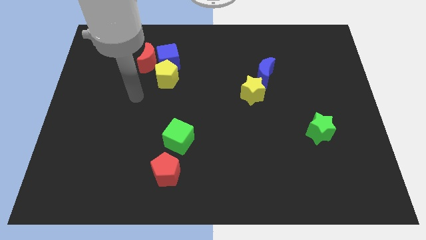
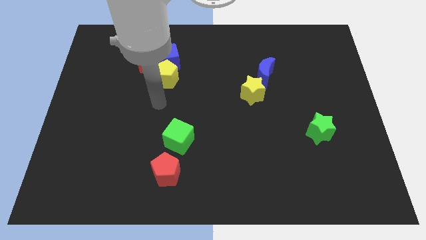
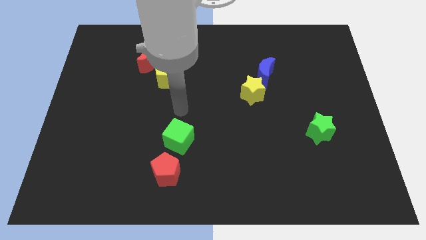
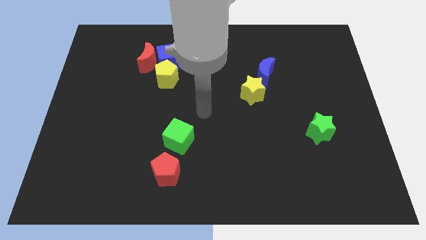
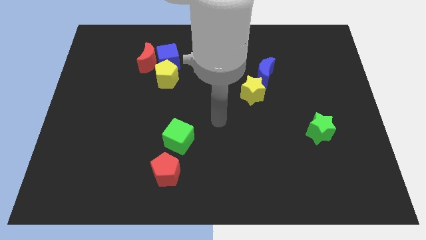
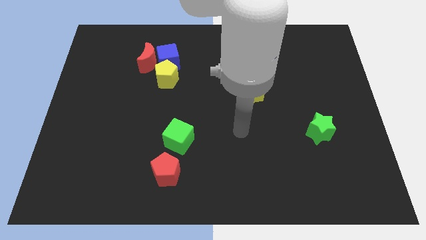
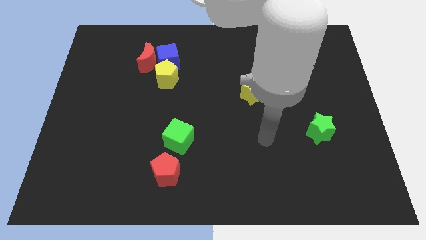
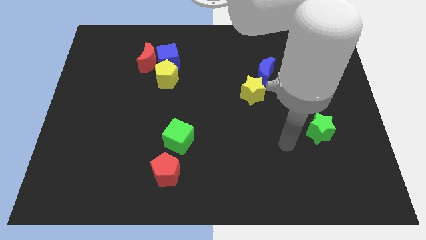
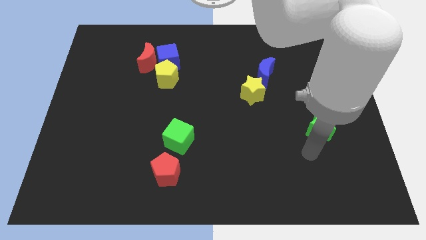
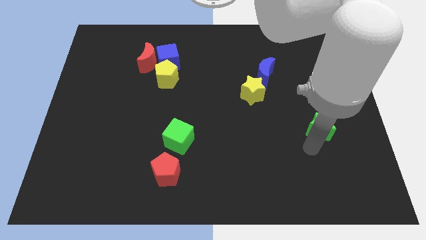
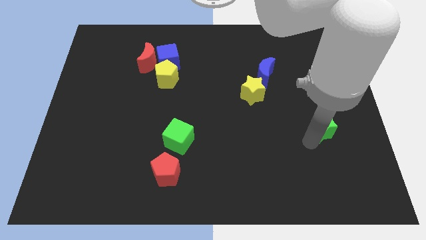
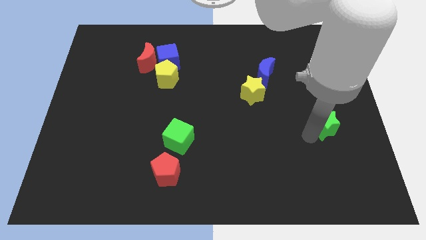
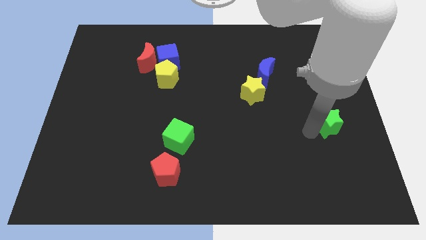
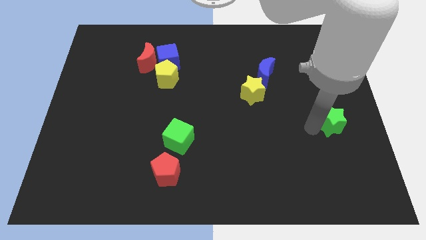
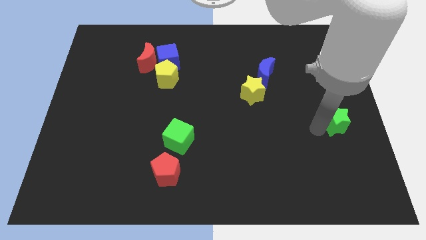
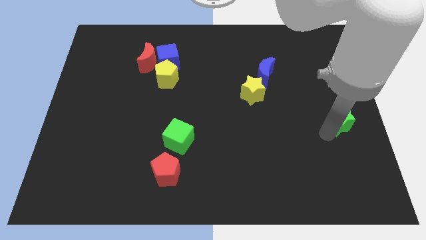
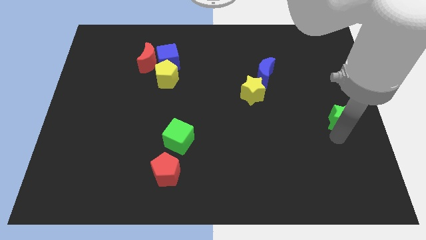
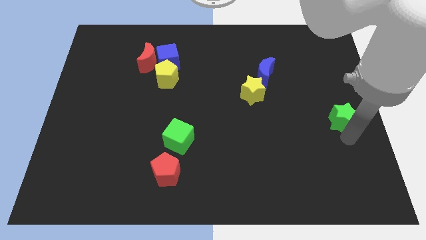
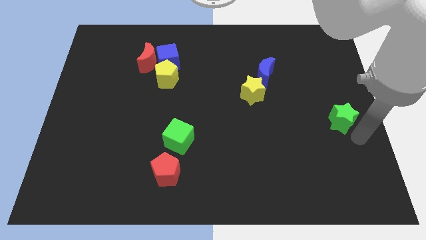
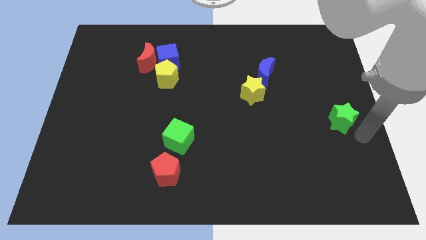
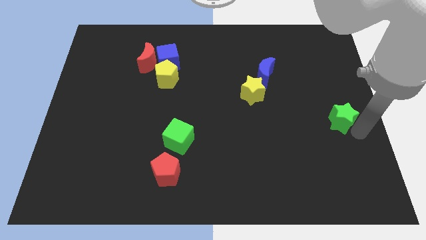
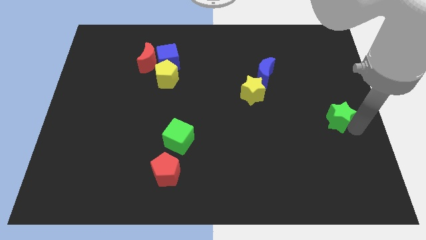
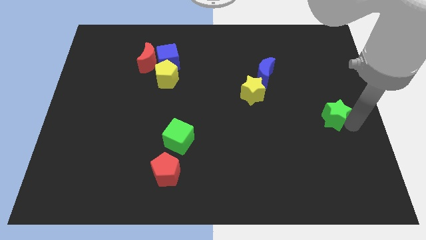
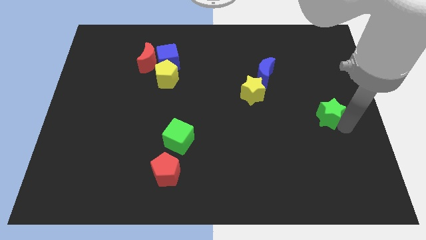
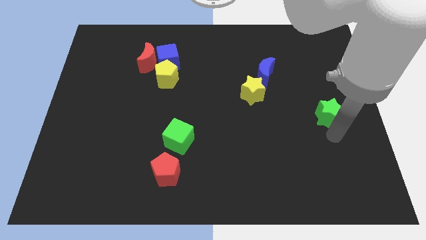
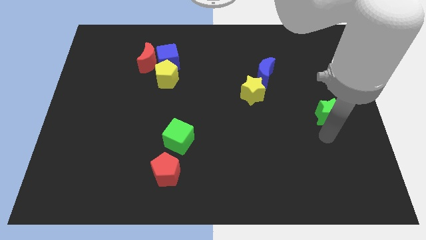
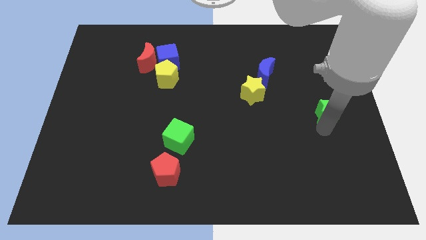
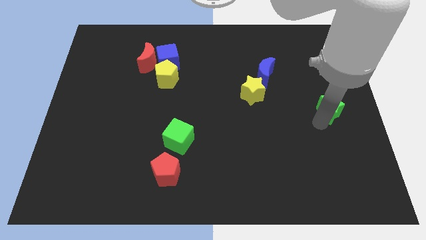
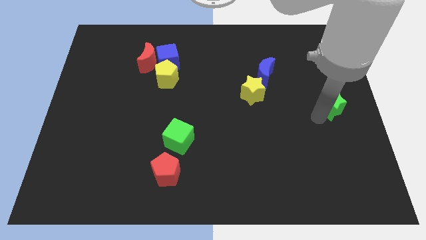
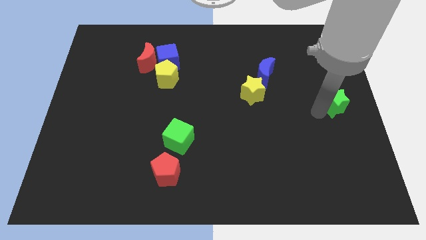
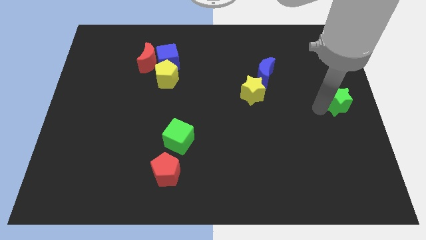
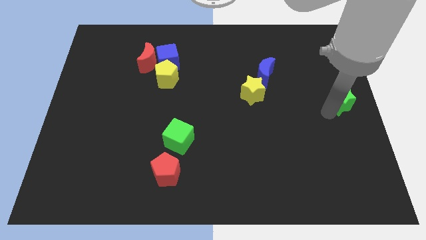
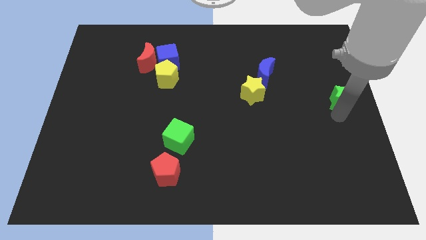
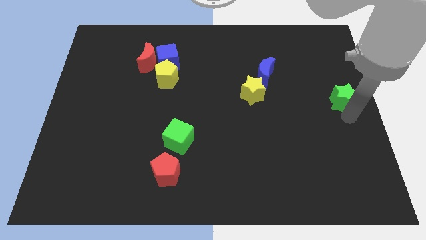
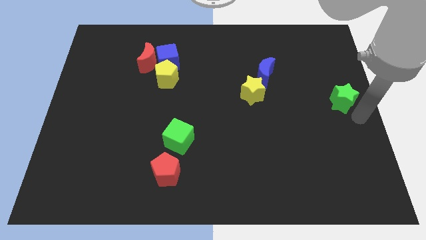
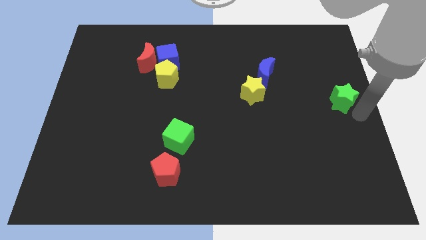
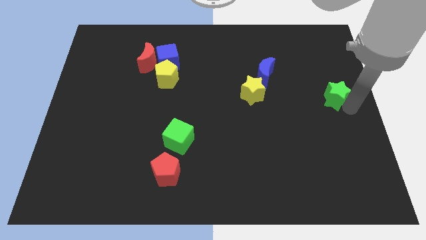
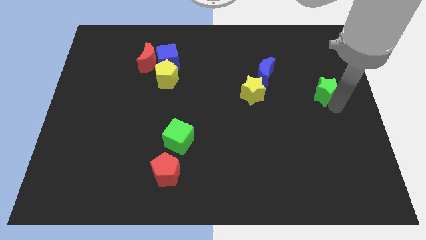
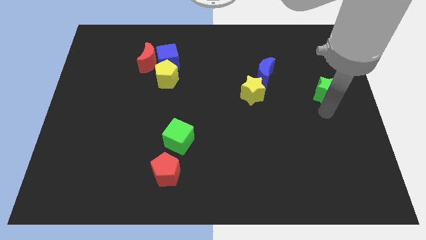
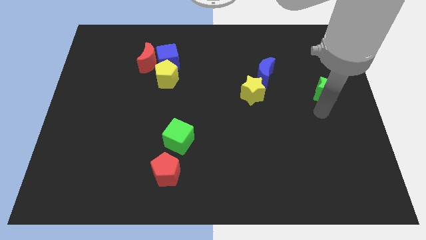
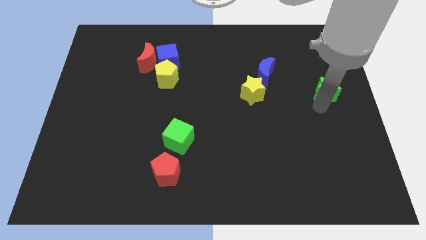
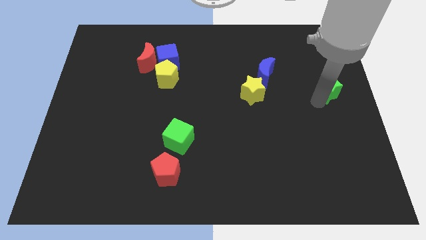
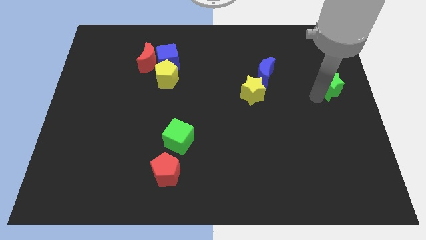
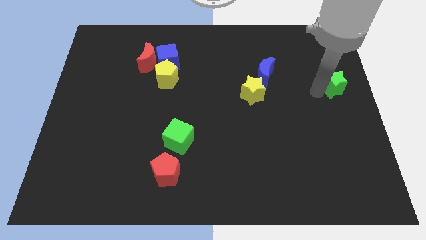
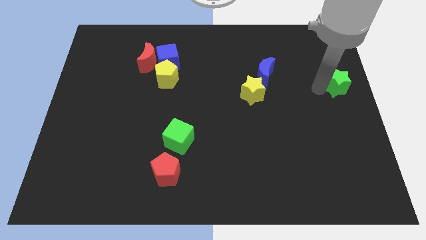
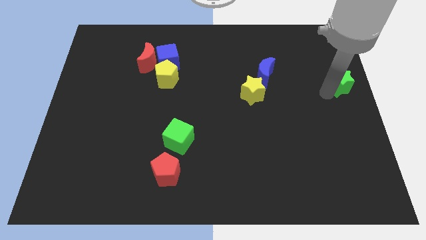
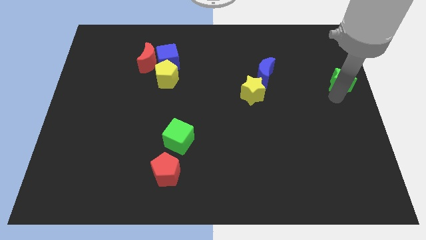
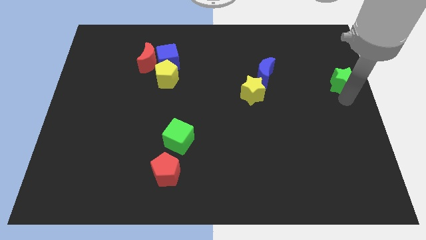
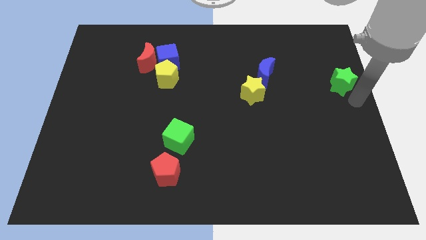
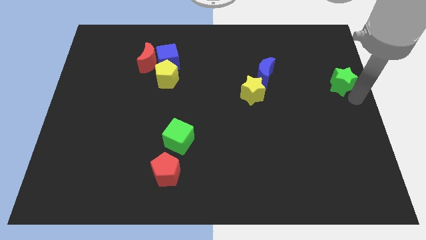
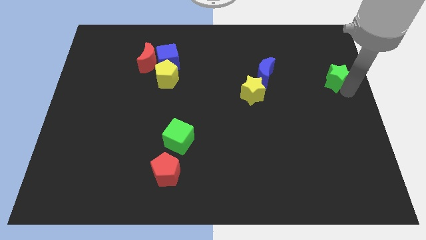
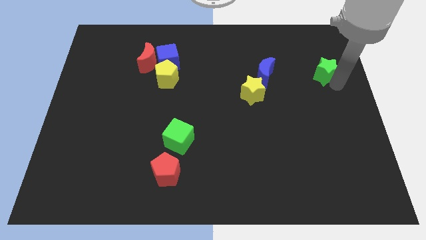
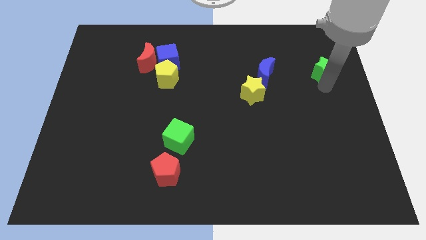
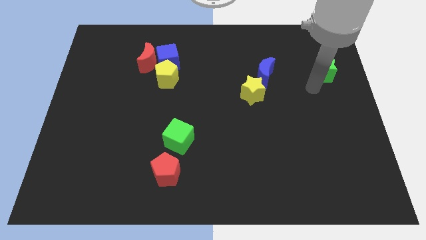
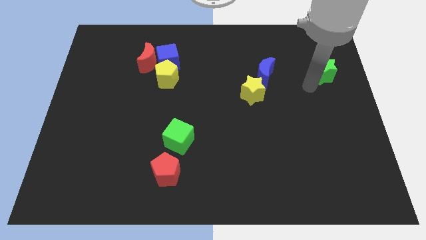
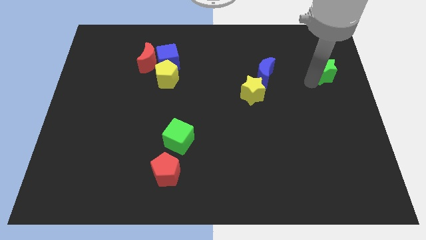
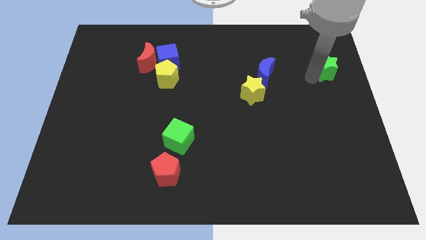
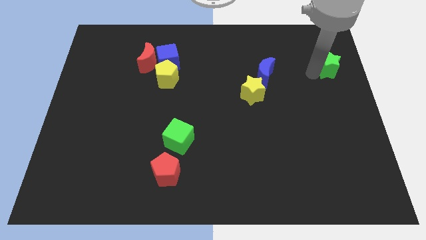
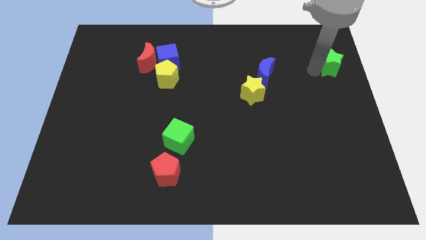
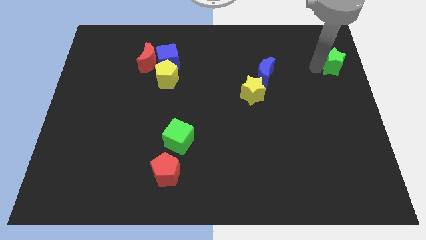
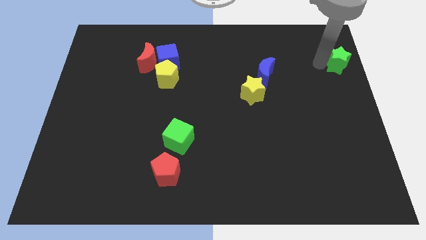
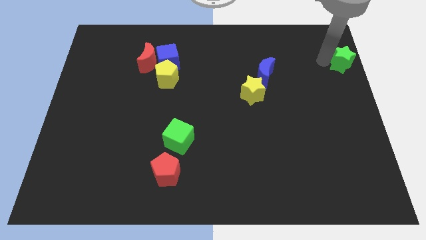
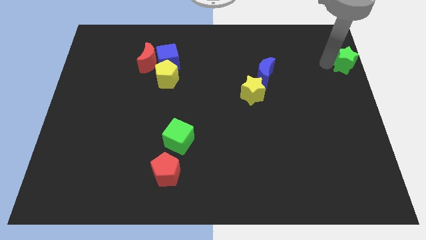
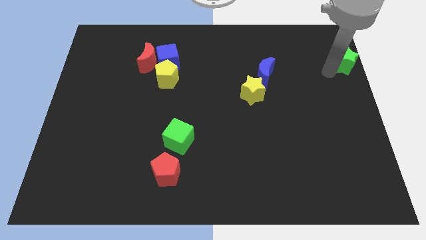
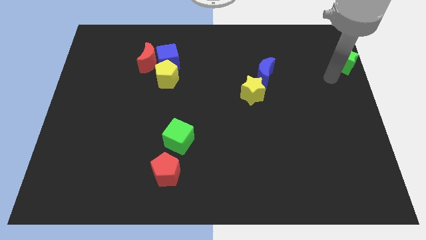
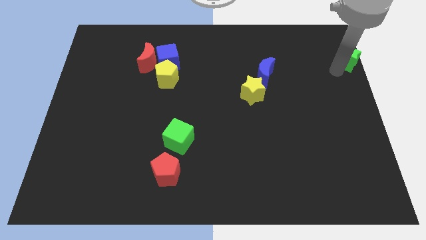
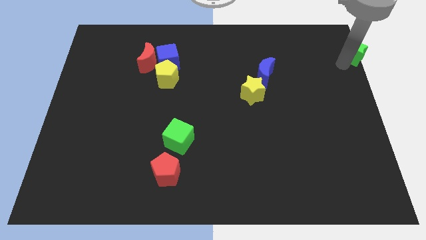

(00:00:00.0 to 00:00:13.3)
put the green star to the top right

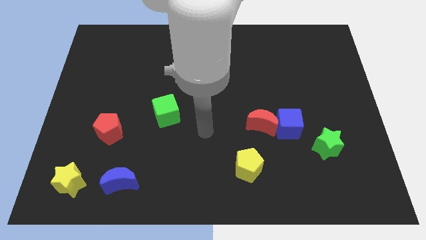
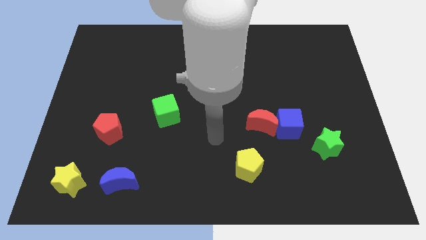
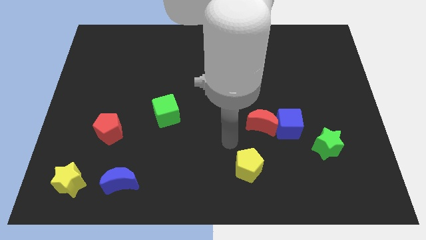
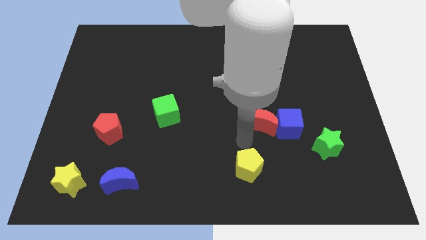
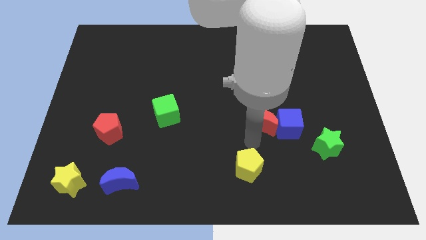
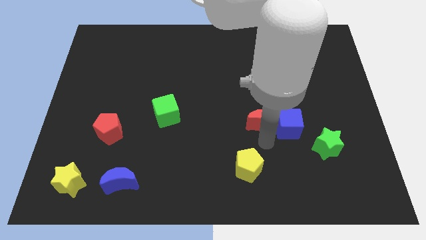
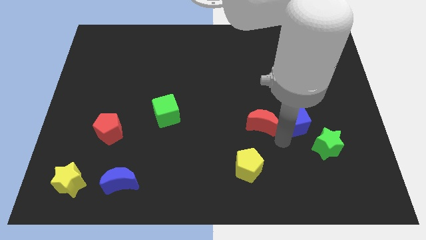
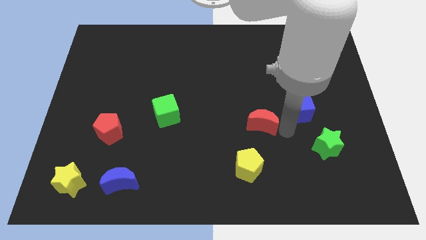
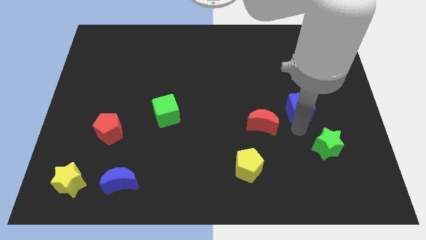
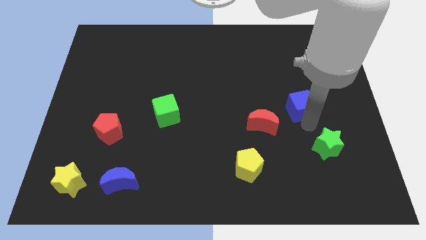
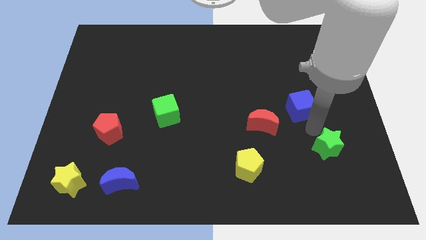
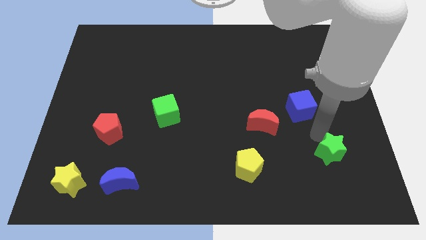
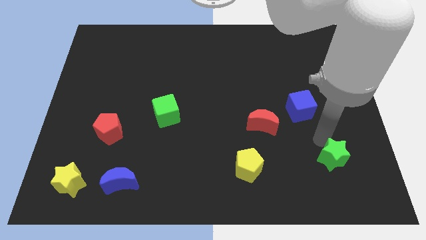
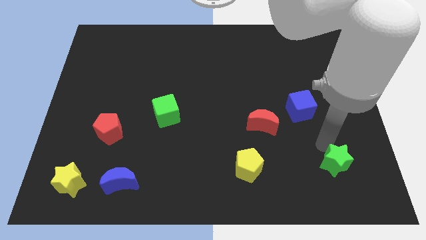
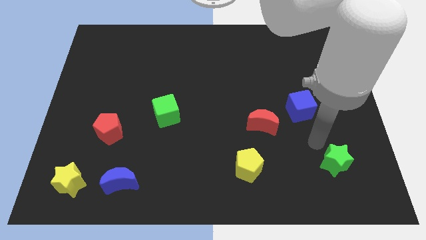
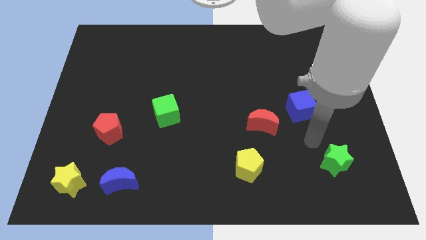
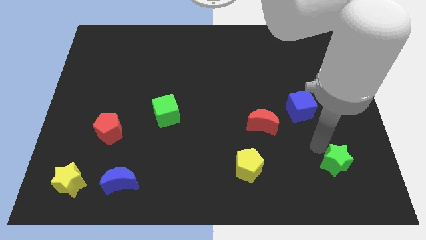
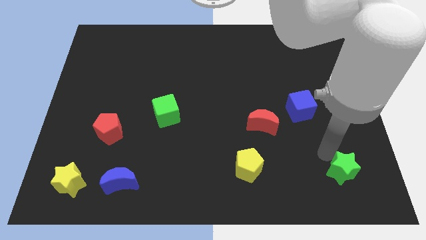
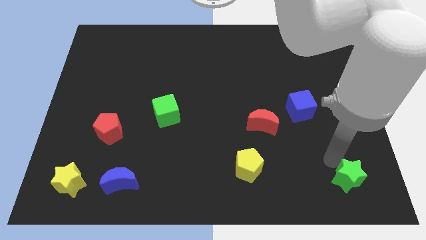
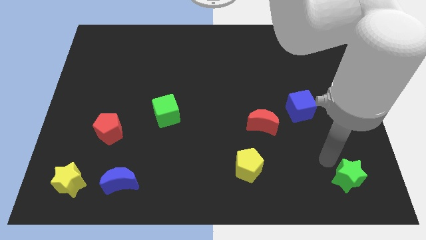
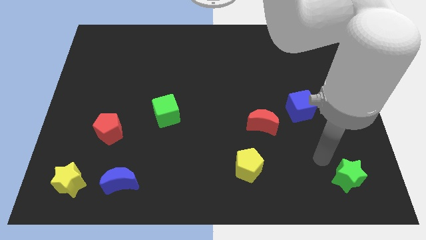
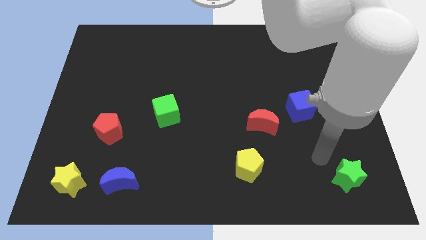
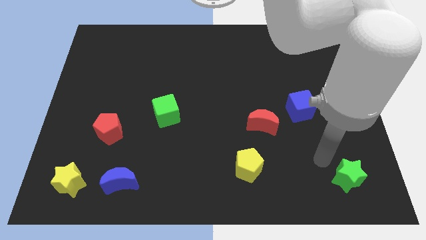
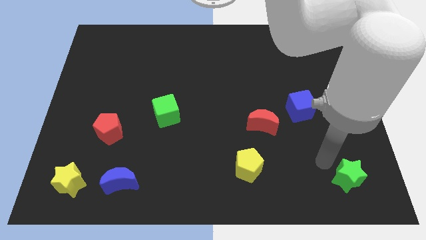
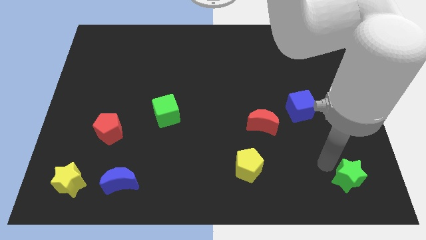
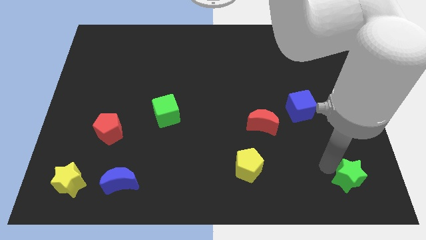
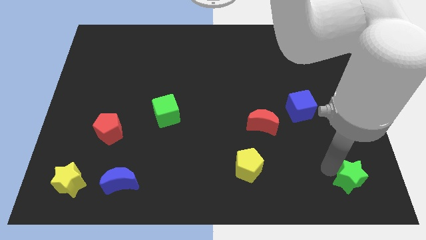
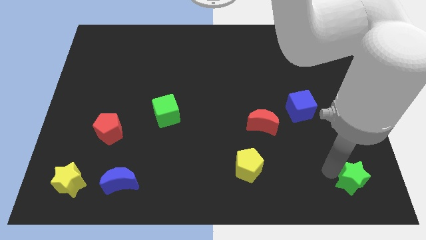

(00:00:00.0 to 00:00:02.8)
put the green star to the bottom right
